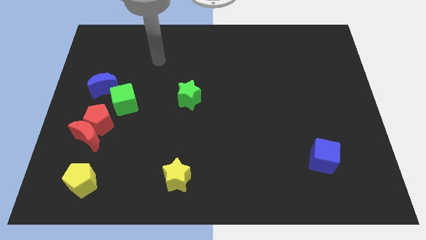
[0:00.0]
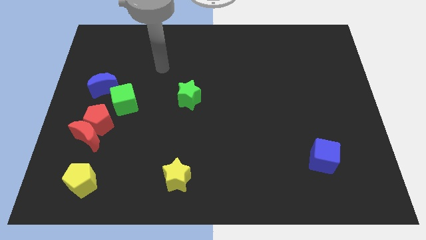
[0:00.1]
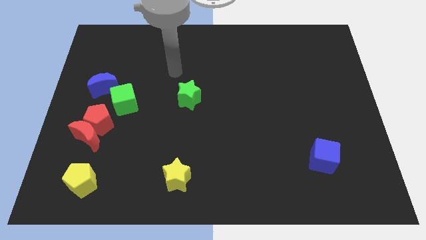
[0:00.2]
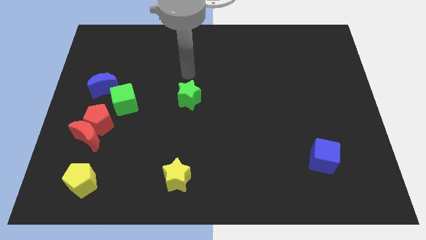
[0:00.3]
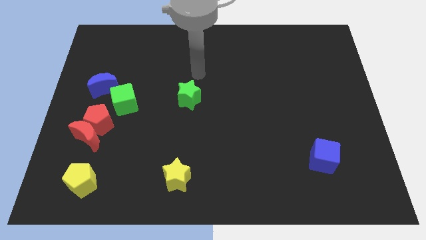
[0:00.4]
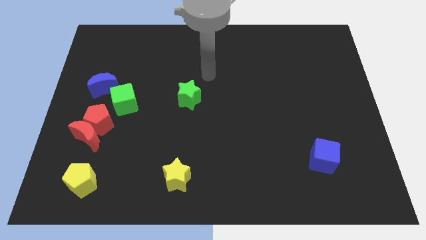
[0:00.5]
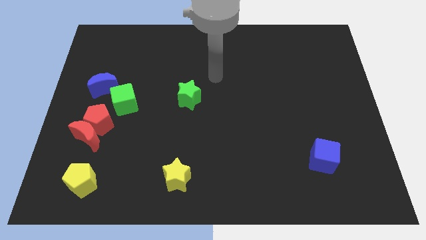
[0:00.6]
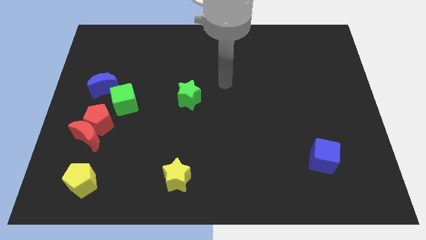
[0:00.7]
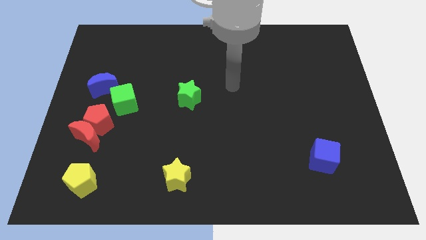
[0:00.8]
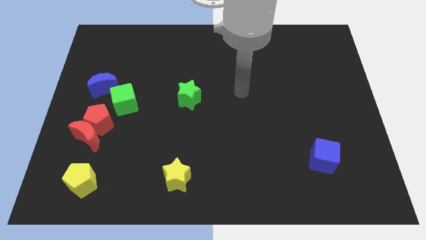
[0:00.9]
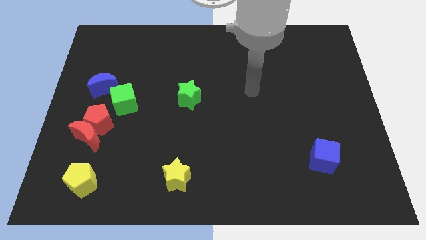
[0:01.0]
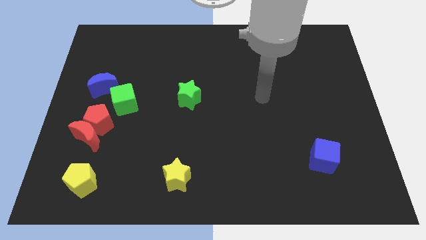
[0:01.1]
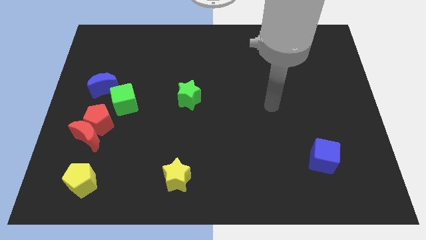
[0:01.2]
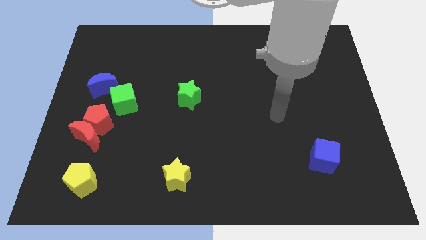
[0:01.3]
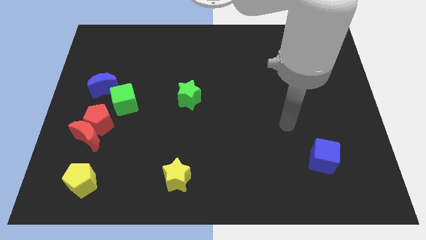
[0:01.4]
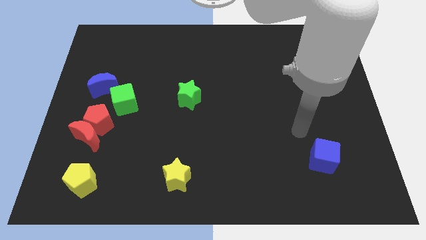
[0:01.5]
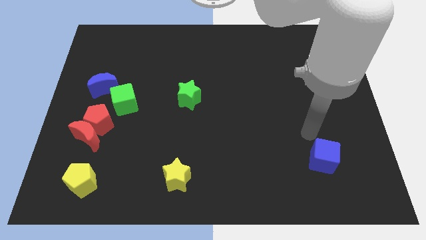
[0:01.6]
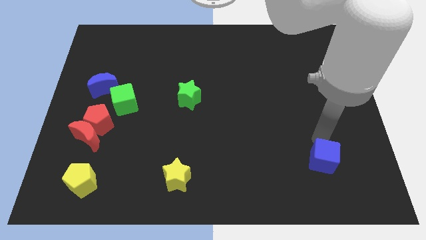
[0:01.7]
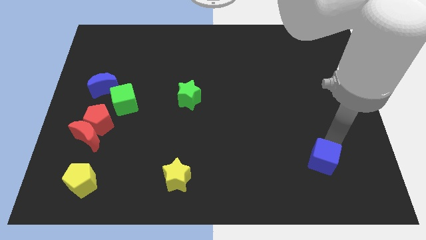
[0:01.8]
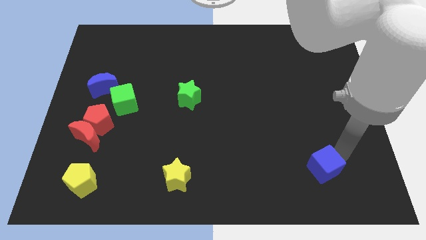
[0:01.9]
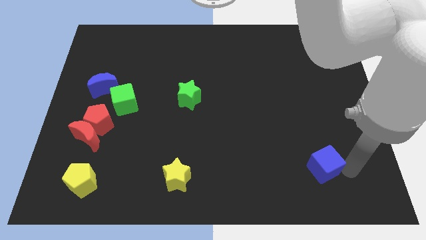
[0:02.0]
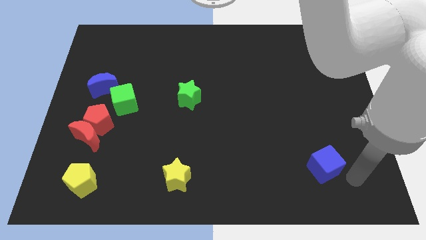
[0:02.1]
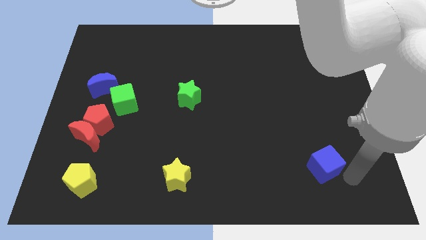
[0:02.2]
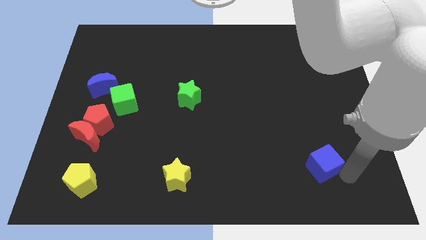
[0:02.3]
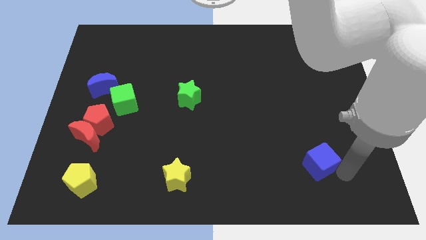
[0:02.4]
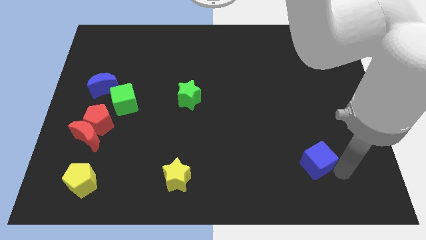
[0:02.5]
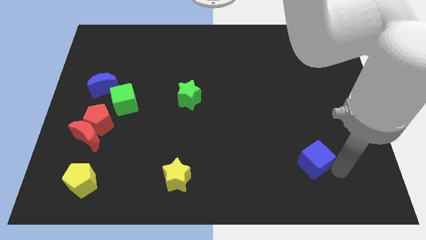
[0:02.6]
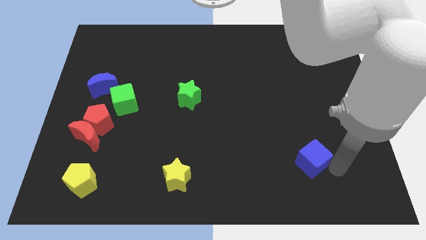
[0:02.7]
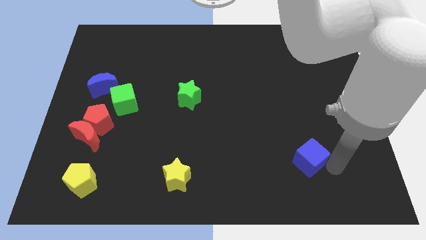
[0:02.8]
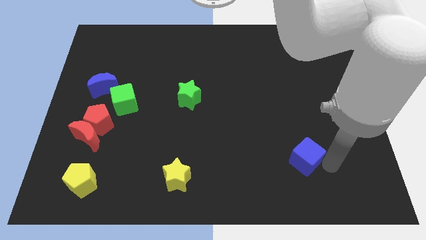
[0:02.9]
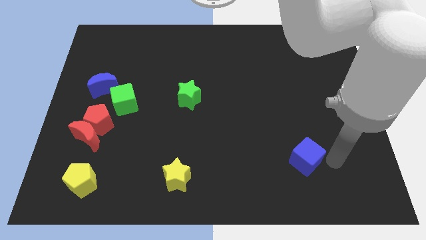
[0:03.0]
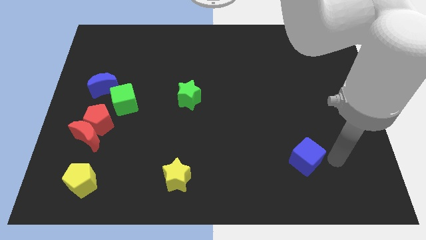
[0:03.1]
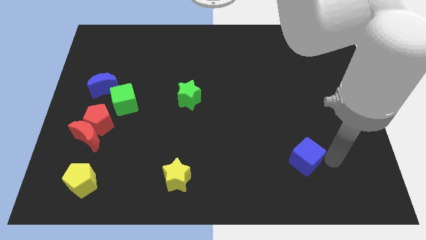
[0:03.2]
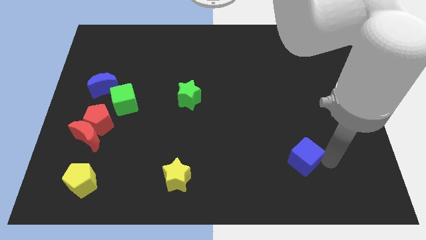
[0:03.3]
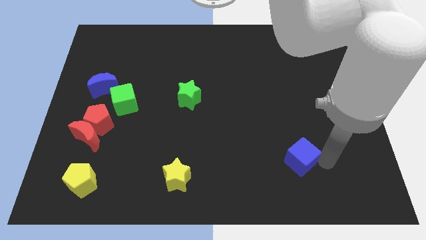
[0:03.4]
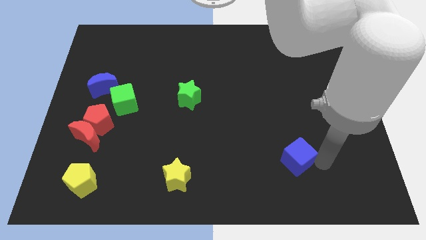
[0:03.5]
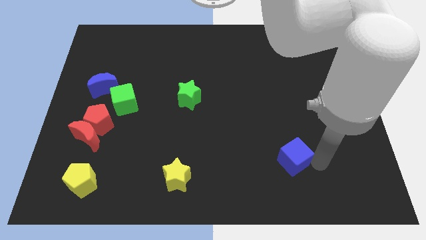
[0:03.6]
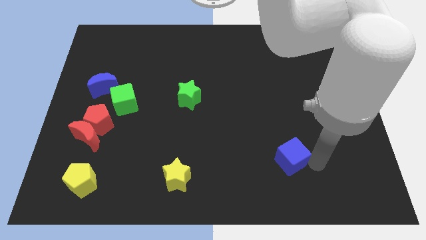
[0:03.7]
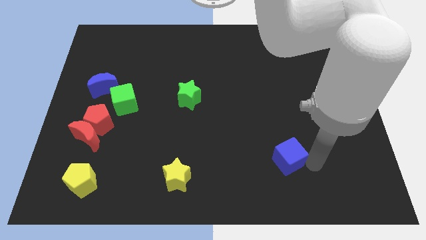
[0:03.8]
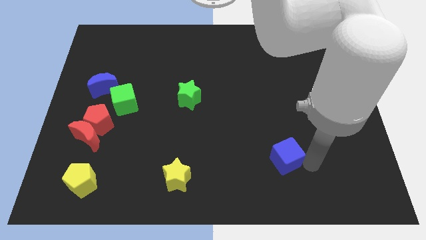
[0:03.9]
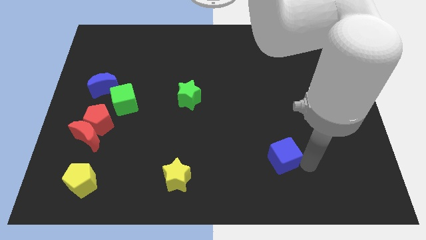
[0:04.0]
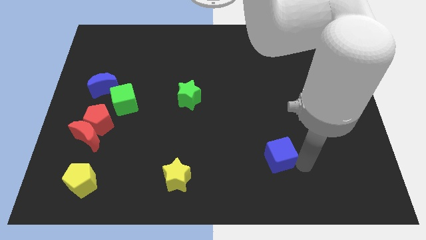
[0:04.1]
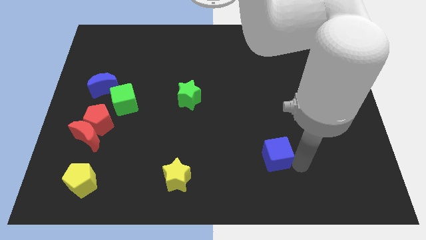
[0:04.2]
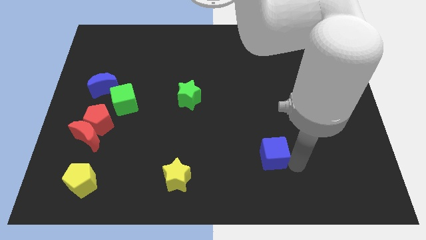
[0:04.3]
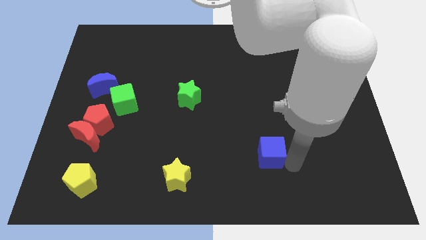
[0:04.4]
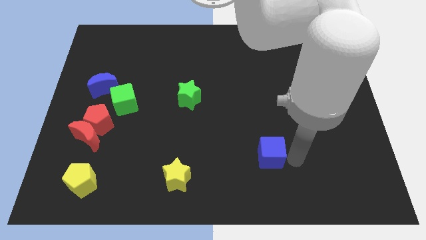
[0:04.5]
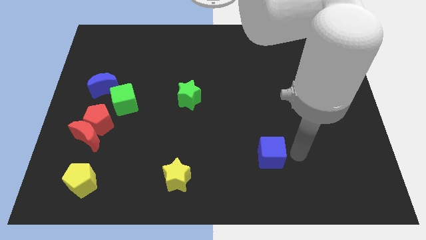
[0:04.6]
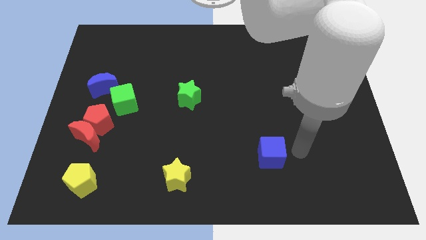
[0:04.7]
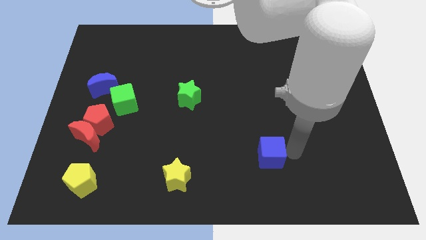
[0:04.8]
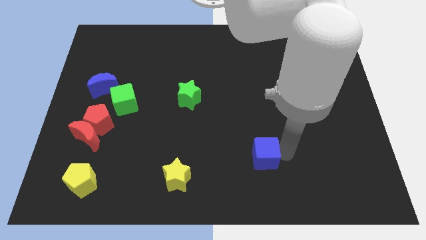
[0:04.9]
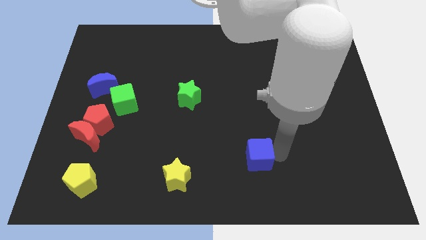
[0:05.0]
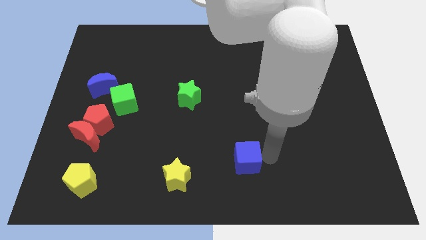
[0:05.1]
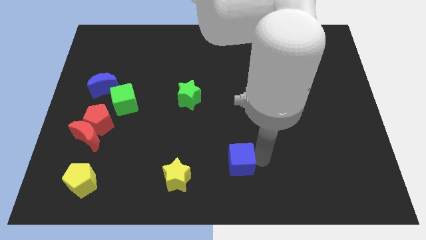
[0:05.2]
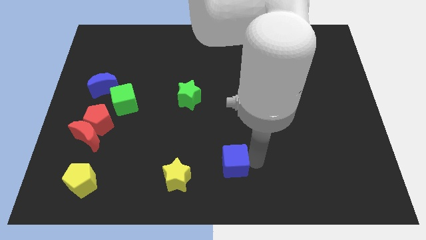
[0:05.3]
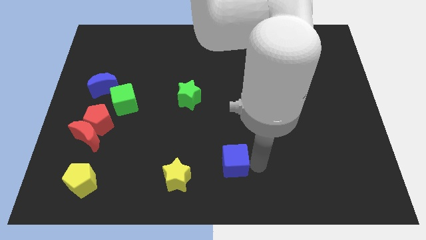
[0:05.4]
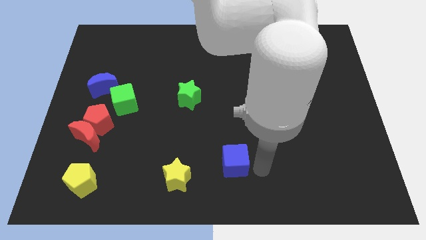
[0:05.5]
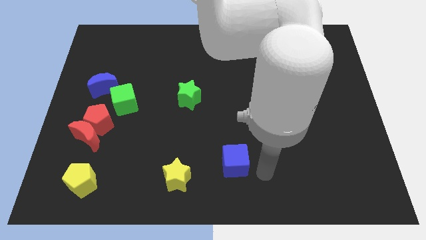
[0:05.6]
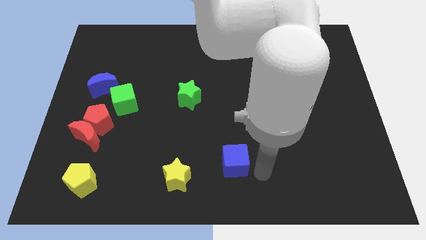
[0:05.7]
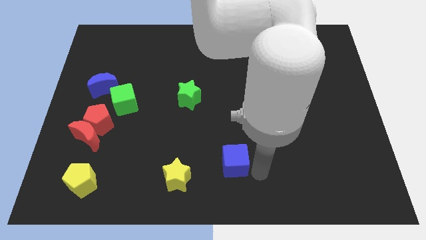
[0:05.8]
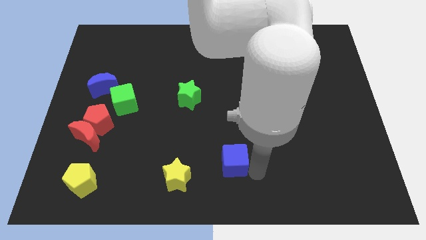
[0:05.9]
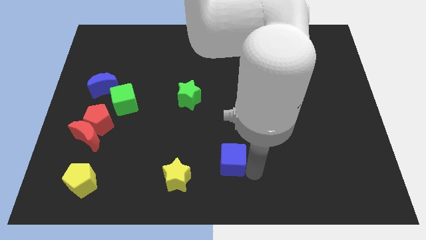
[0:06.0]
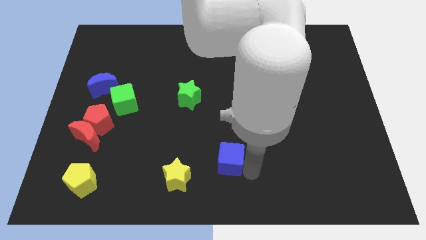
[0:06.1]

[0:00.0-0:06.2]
slide the blue cube left

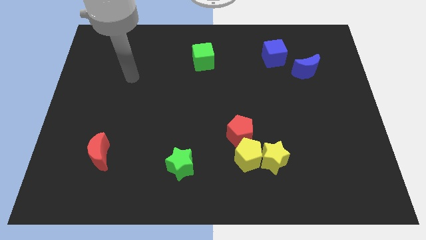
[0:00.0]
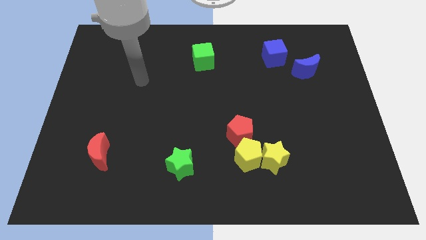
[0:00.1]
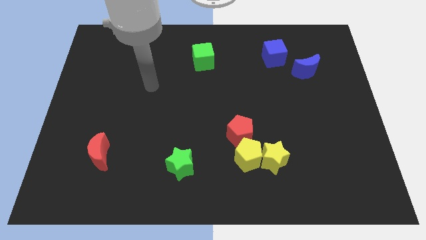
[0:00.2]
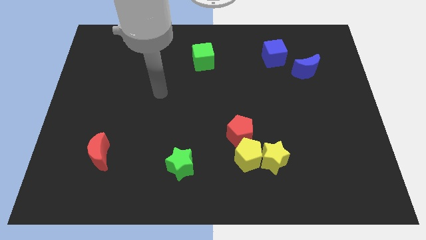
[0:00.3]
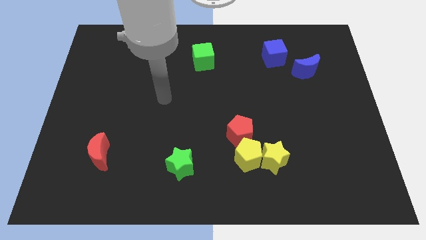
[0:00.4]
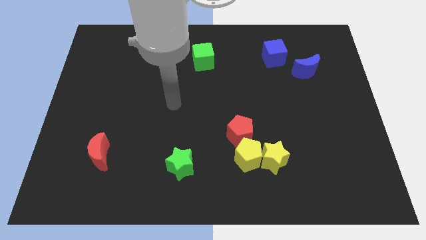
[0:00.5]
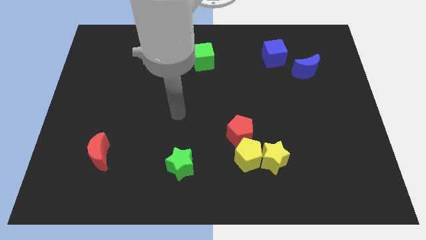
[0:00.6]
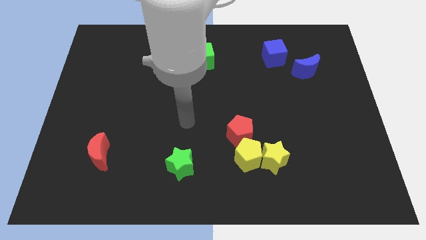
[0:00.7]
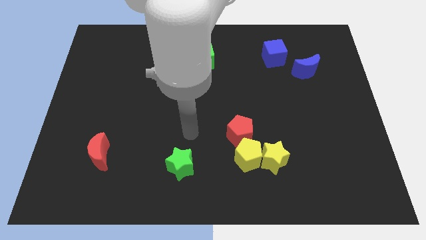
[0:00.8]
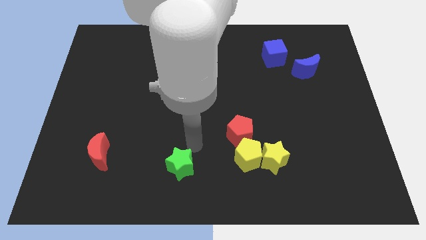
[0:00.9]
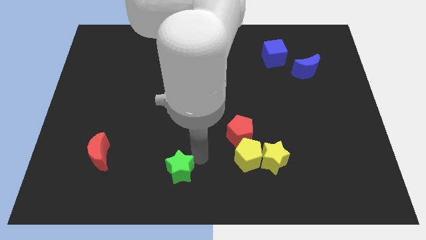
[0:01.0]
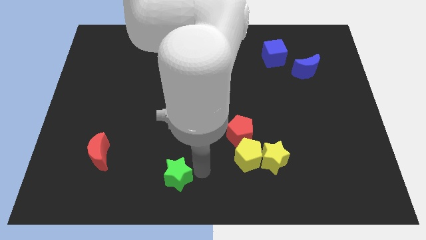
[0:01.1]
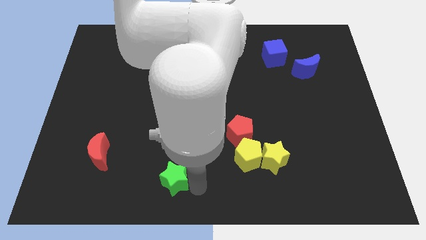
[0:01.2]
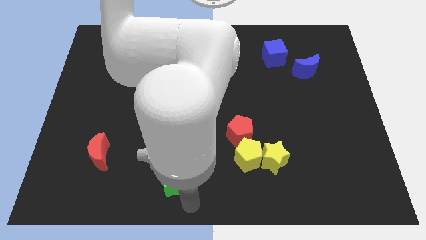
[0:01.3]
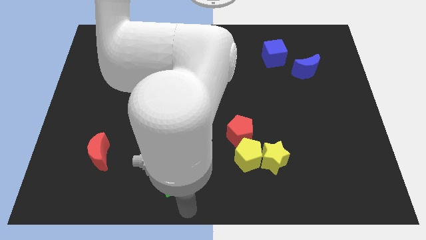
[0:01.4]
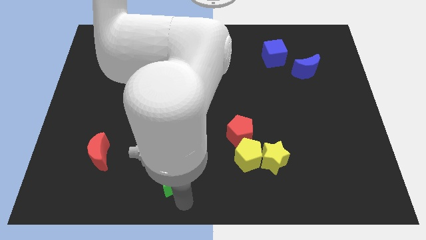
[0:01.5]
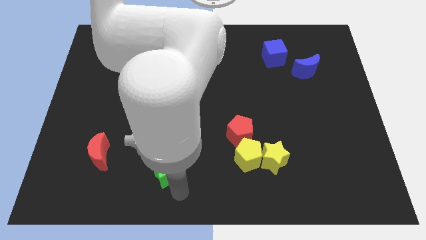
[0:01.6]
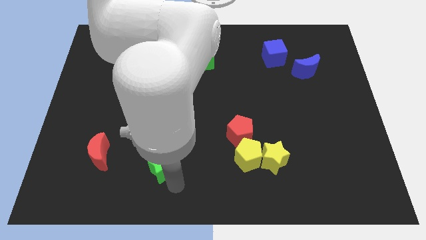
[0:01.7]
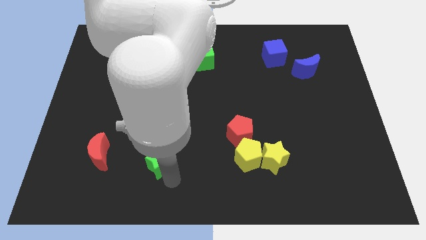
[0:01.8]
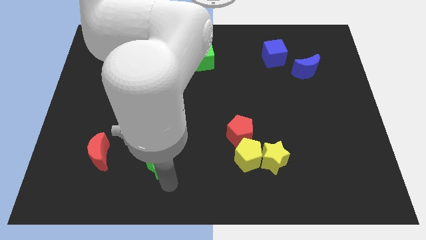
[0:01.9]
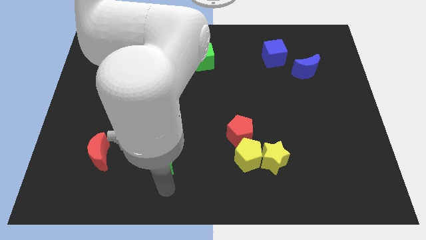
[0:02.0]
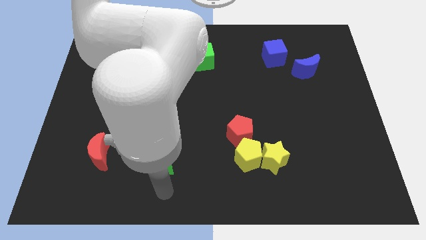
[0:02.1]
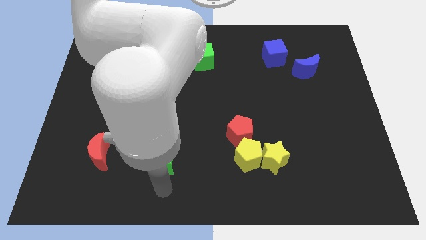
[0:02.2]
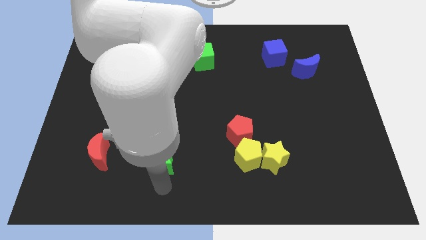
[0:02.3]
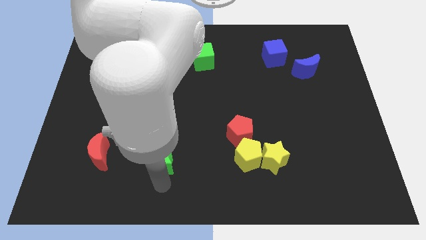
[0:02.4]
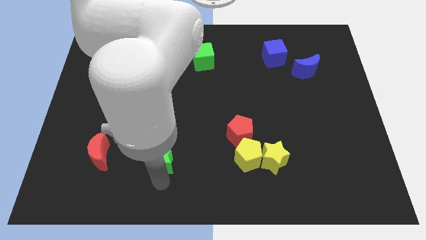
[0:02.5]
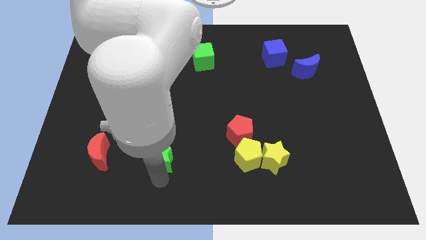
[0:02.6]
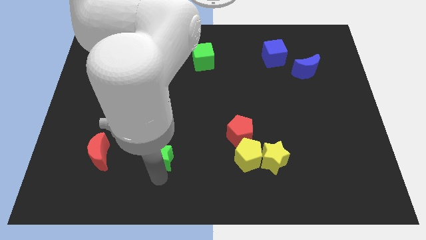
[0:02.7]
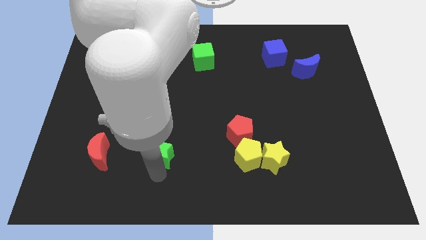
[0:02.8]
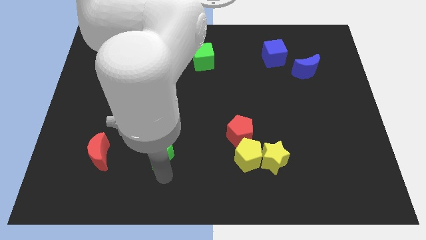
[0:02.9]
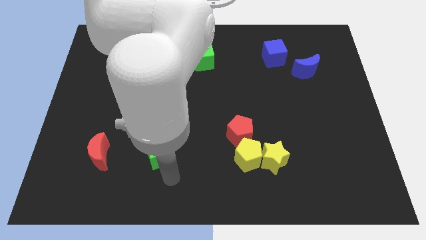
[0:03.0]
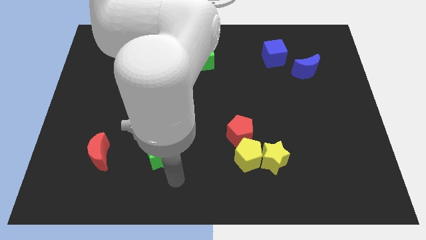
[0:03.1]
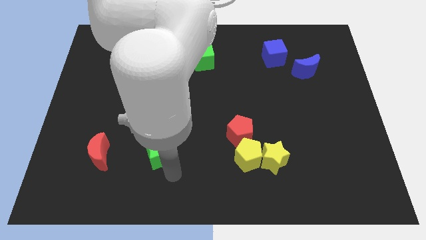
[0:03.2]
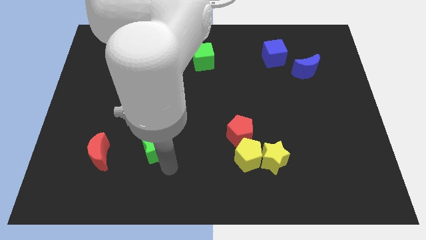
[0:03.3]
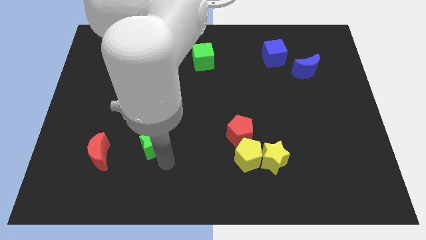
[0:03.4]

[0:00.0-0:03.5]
slightly slide the green star up and left diagonally
